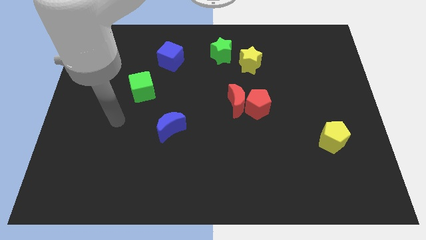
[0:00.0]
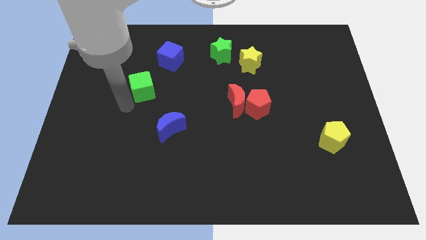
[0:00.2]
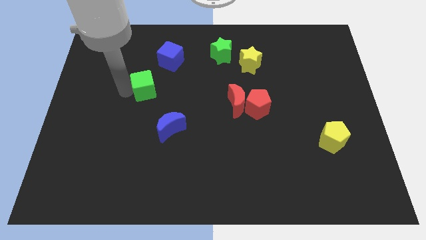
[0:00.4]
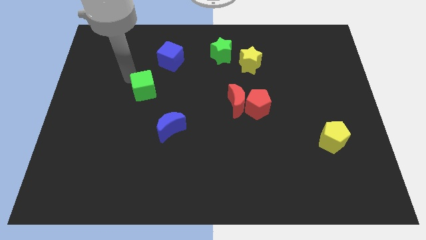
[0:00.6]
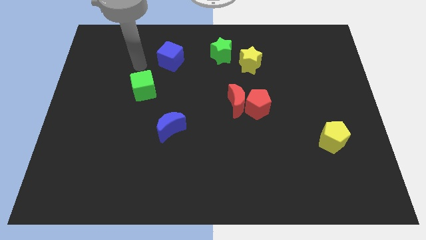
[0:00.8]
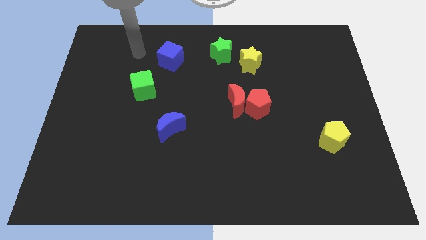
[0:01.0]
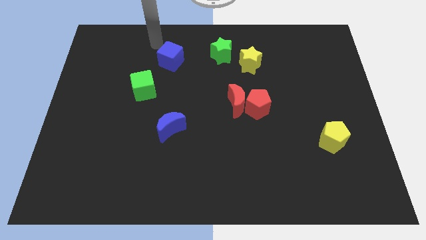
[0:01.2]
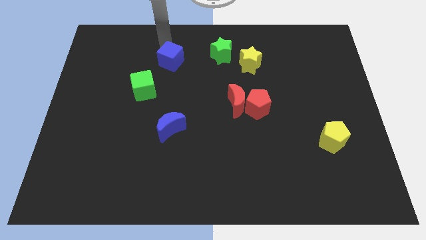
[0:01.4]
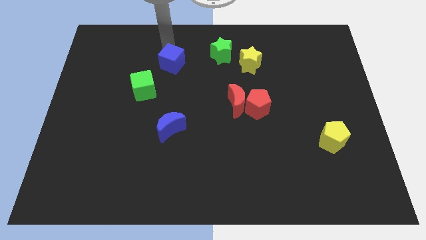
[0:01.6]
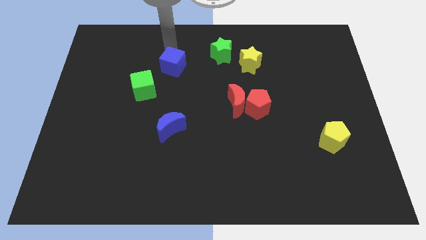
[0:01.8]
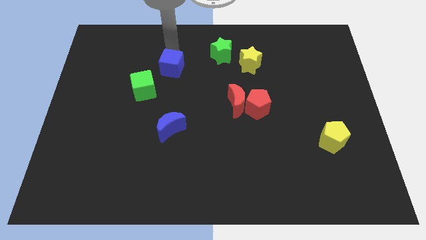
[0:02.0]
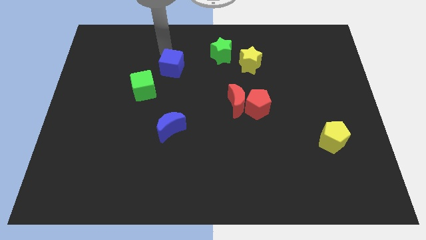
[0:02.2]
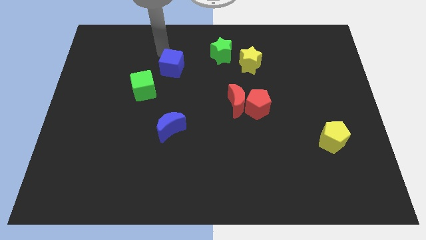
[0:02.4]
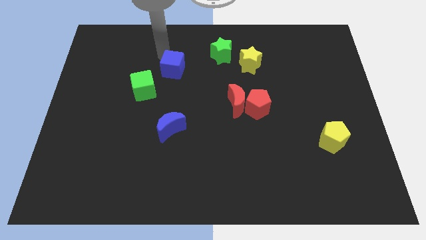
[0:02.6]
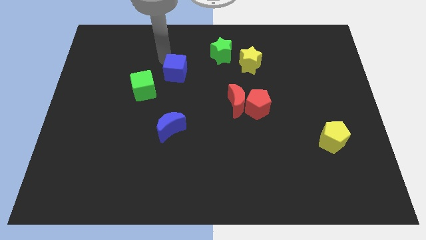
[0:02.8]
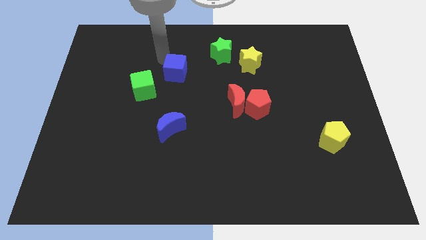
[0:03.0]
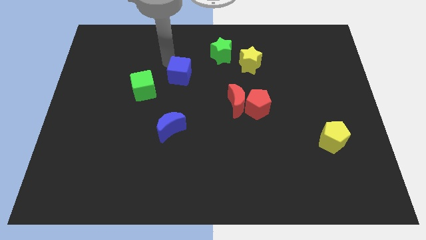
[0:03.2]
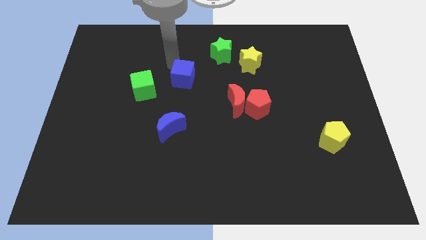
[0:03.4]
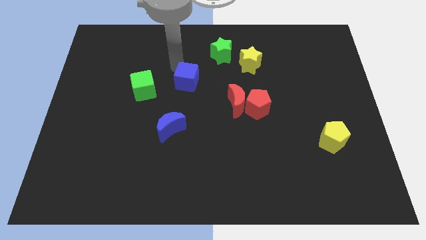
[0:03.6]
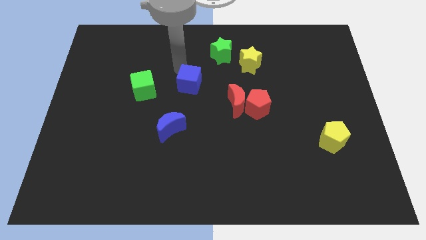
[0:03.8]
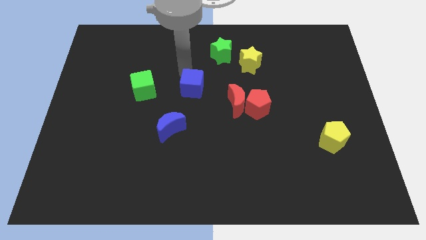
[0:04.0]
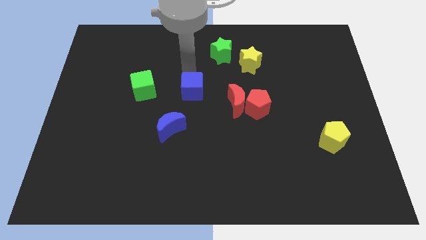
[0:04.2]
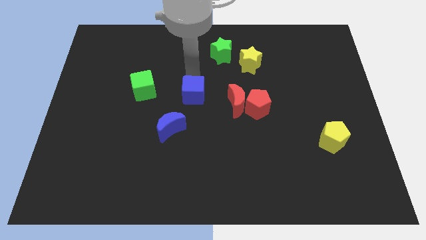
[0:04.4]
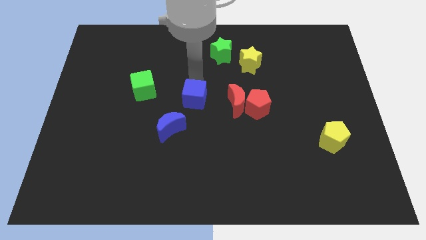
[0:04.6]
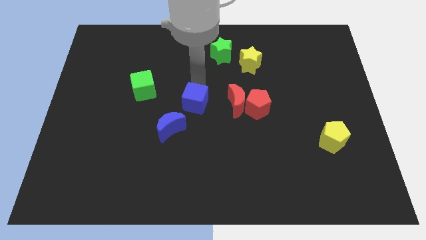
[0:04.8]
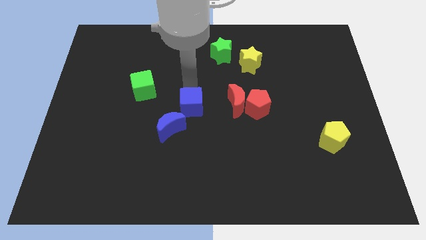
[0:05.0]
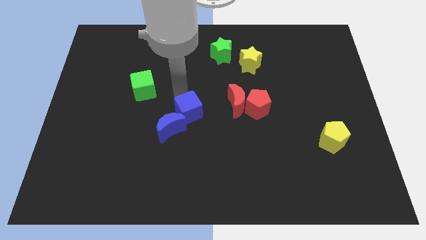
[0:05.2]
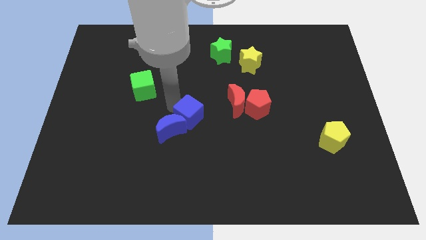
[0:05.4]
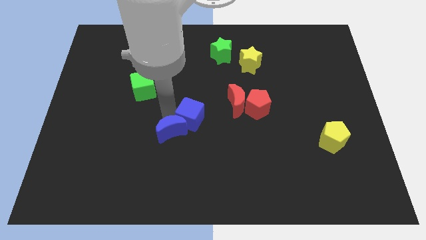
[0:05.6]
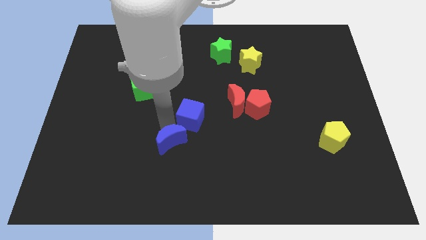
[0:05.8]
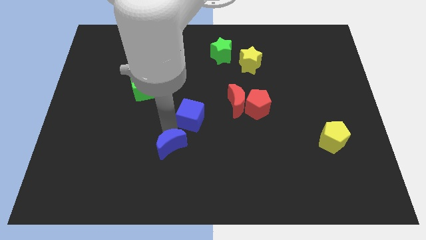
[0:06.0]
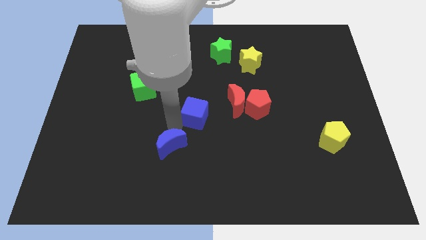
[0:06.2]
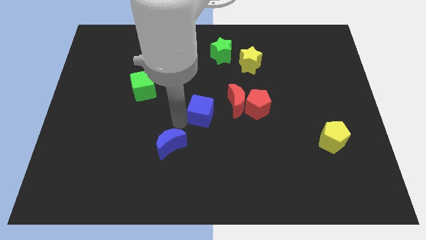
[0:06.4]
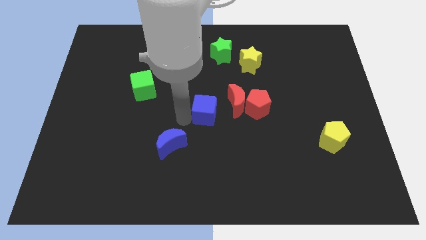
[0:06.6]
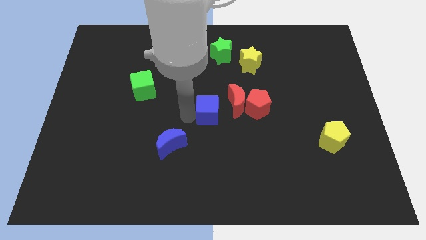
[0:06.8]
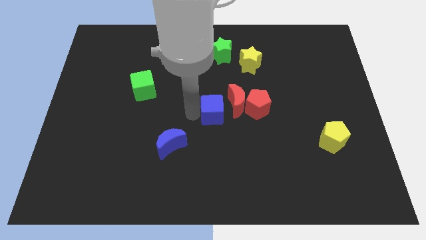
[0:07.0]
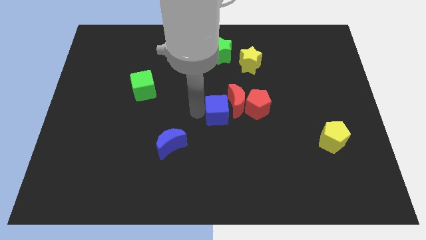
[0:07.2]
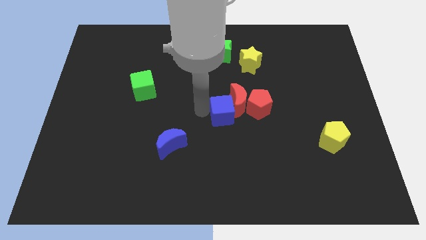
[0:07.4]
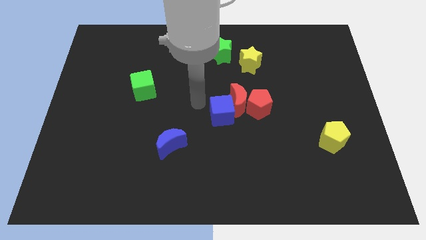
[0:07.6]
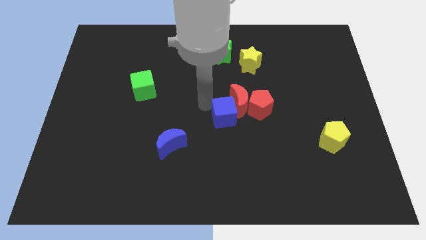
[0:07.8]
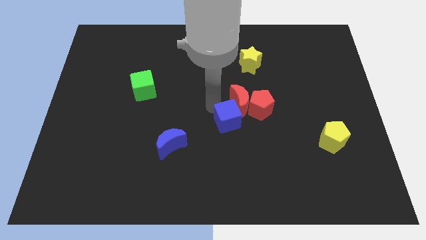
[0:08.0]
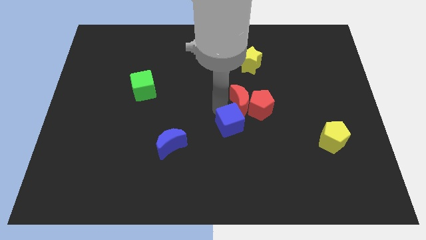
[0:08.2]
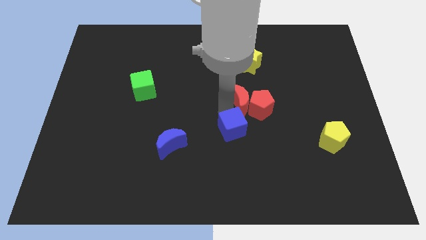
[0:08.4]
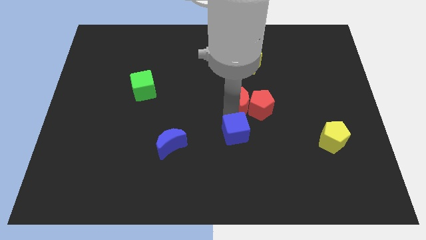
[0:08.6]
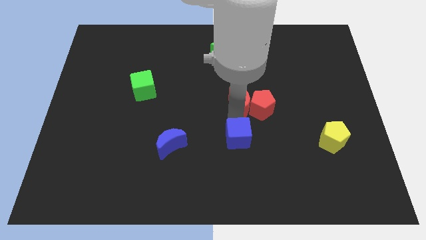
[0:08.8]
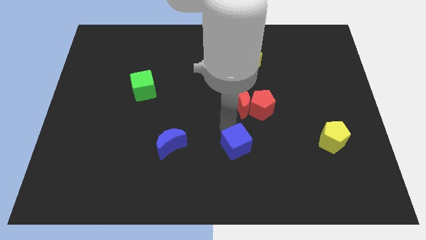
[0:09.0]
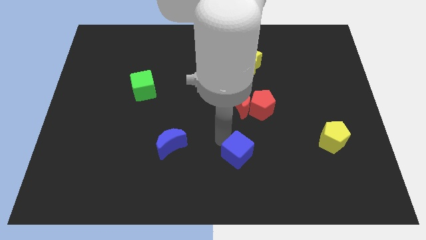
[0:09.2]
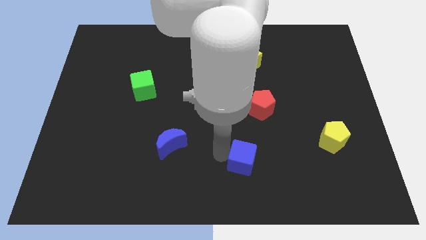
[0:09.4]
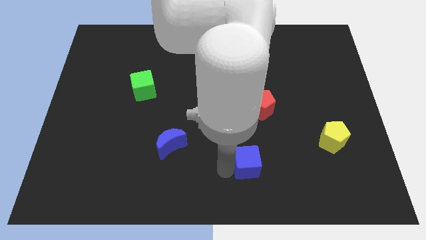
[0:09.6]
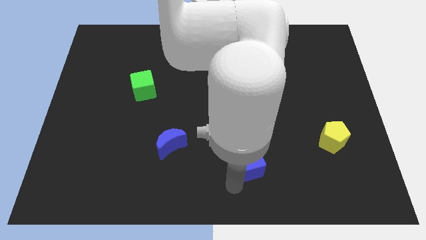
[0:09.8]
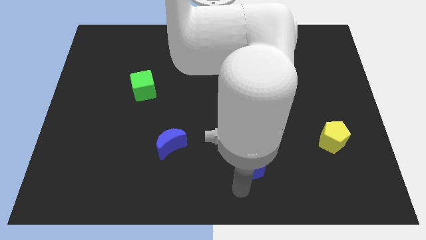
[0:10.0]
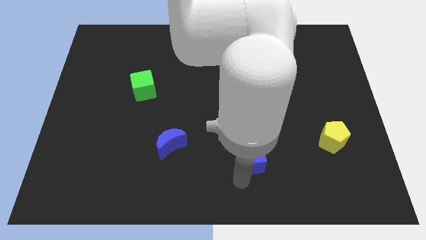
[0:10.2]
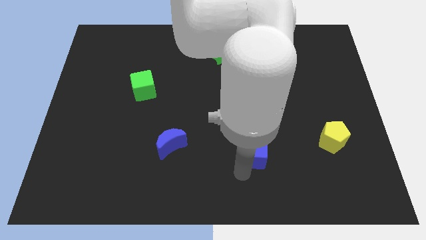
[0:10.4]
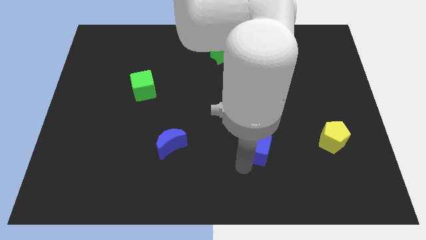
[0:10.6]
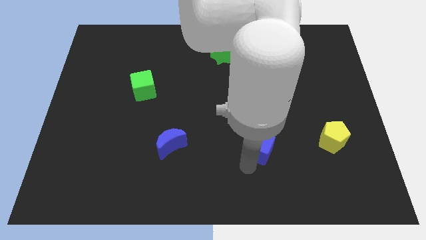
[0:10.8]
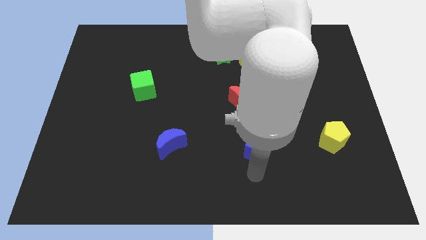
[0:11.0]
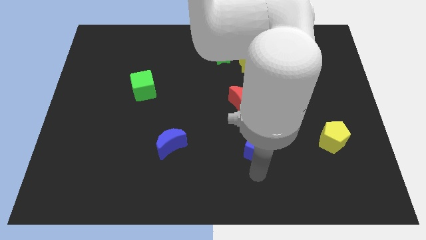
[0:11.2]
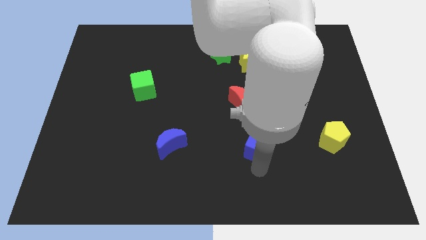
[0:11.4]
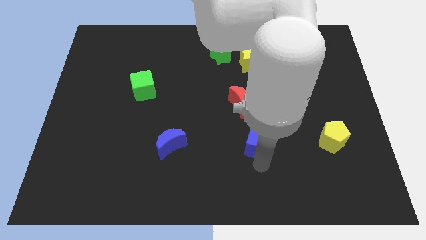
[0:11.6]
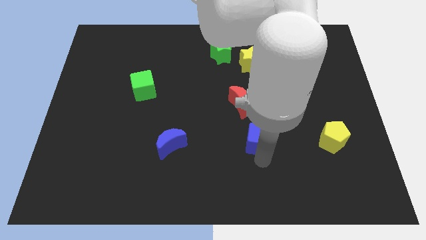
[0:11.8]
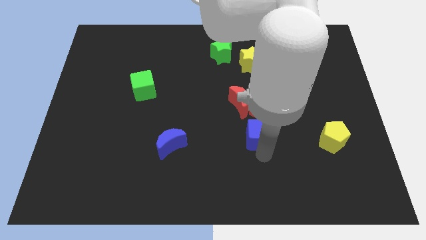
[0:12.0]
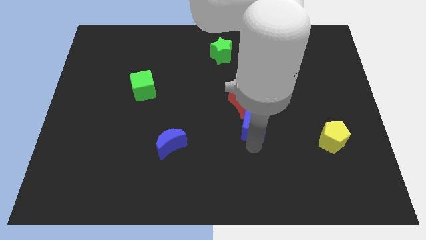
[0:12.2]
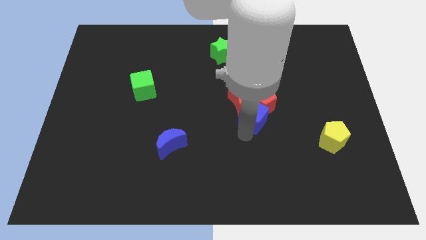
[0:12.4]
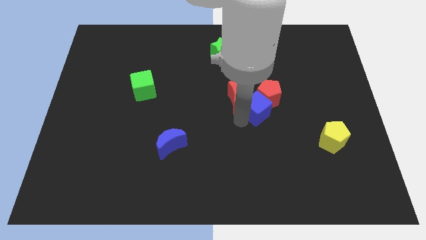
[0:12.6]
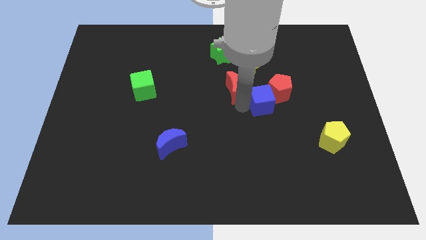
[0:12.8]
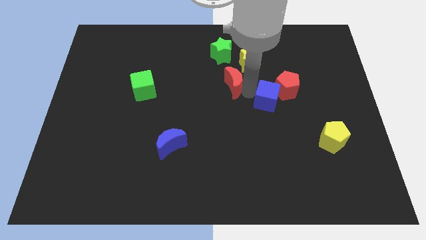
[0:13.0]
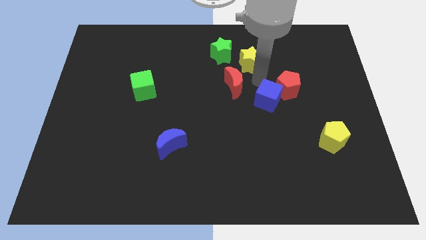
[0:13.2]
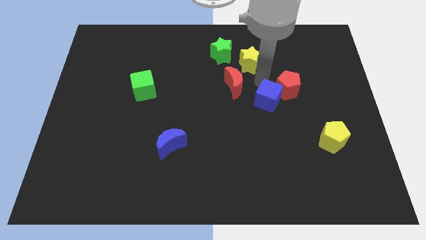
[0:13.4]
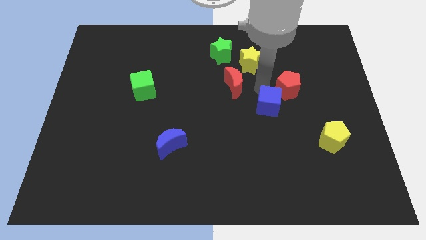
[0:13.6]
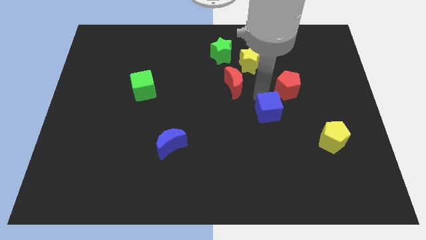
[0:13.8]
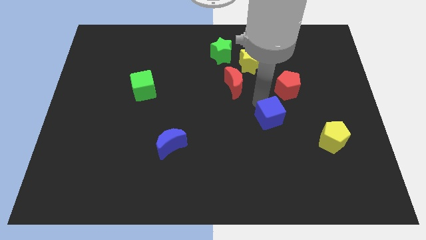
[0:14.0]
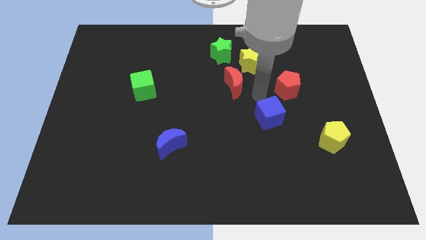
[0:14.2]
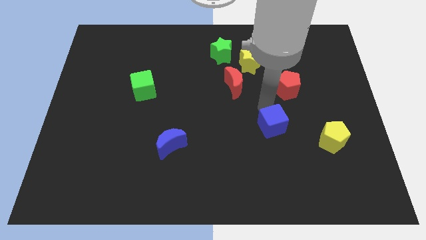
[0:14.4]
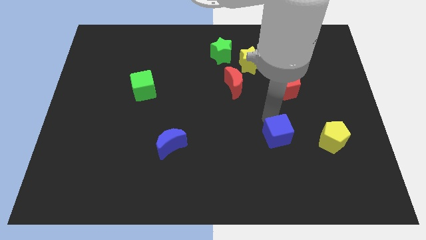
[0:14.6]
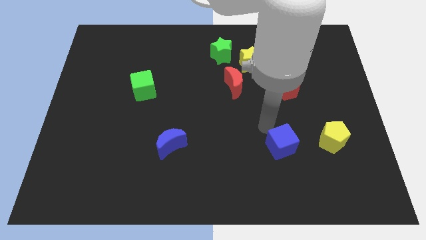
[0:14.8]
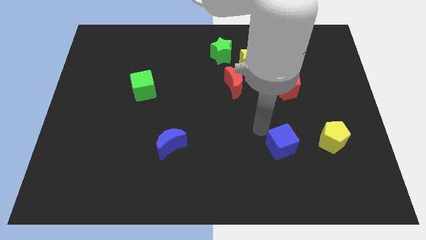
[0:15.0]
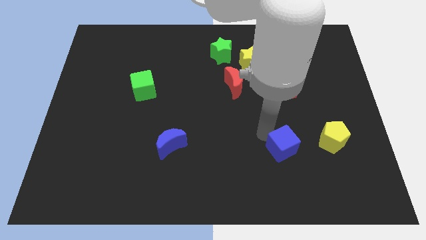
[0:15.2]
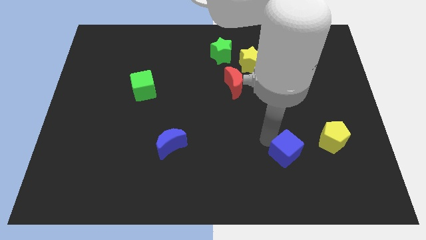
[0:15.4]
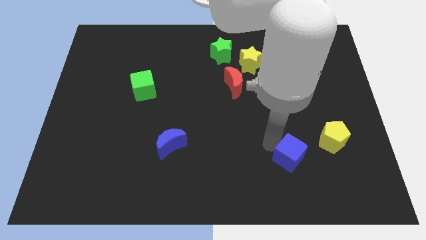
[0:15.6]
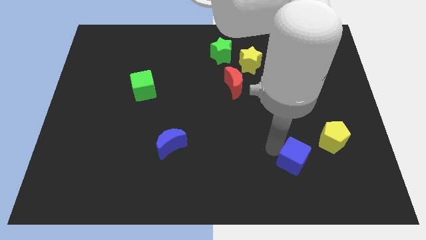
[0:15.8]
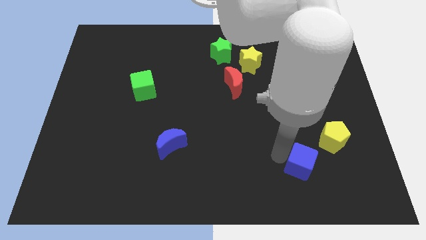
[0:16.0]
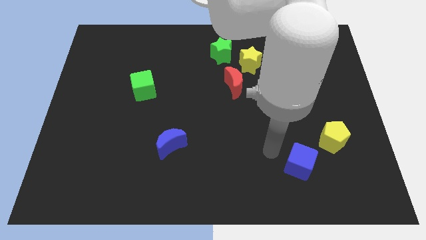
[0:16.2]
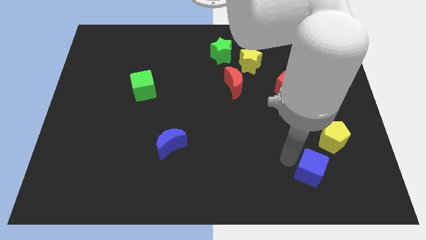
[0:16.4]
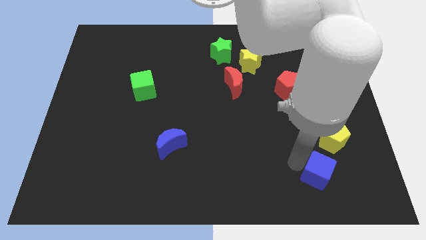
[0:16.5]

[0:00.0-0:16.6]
slide the blue cube to the bottom side of the yellow pentagon
